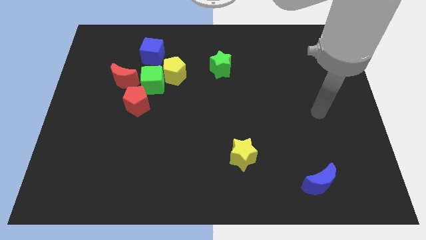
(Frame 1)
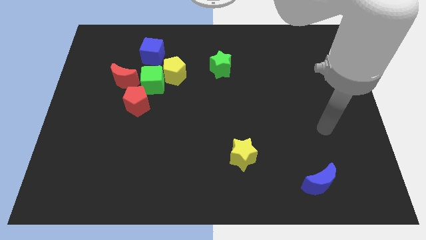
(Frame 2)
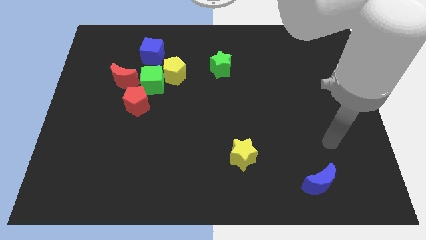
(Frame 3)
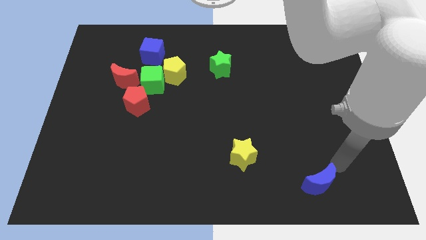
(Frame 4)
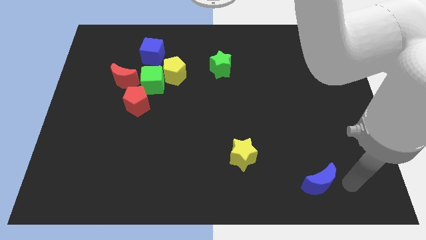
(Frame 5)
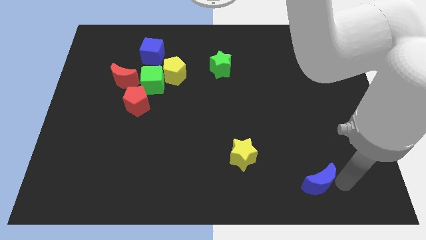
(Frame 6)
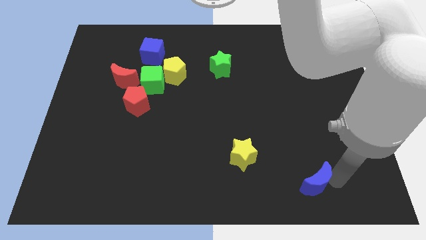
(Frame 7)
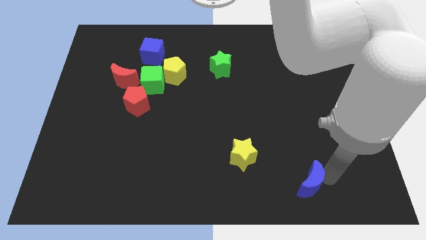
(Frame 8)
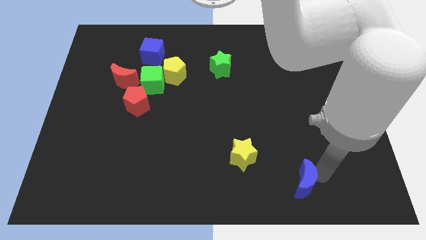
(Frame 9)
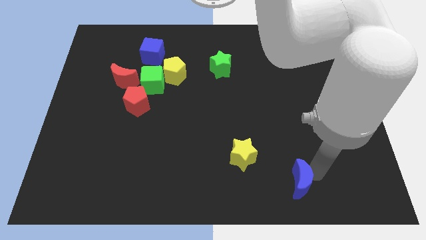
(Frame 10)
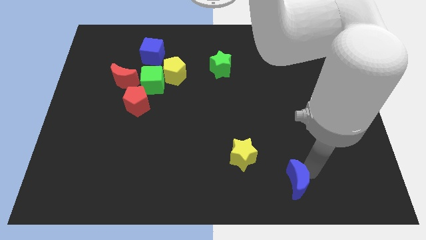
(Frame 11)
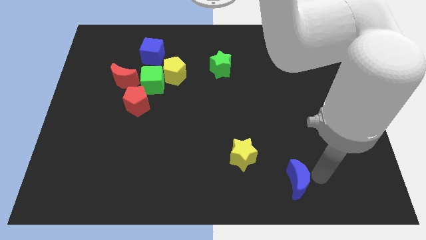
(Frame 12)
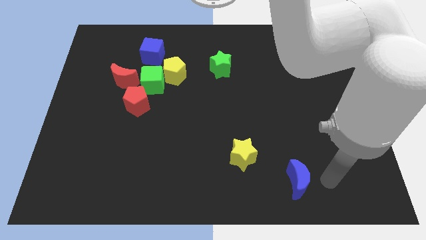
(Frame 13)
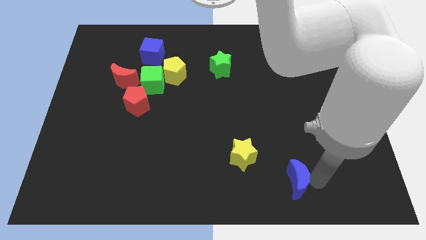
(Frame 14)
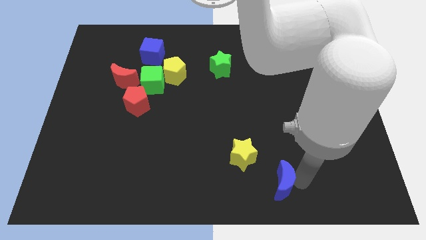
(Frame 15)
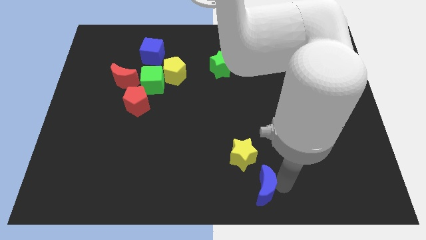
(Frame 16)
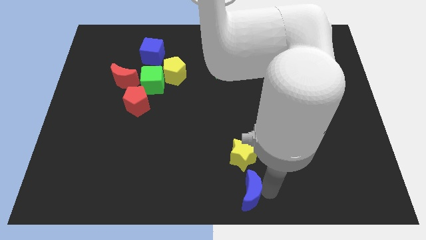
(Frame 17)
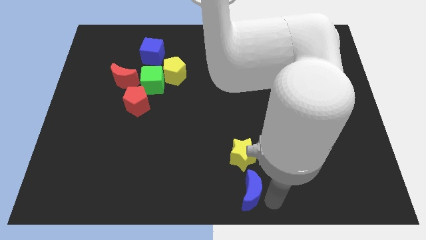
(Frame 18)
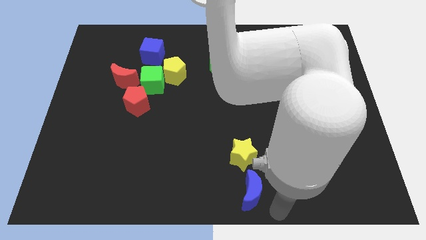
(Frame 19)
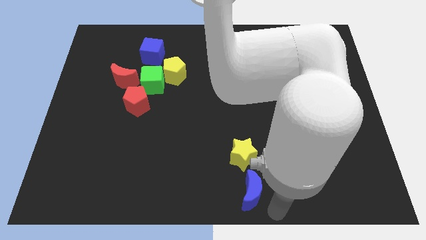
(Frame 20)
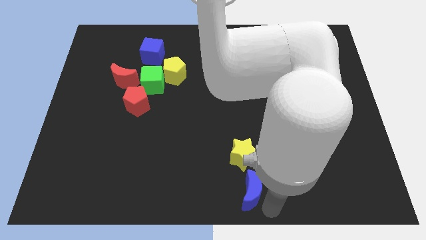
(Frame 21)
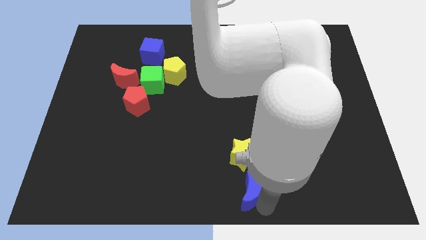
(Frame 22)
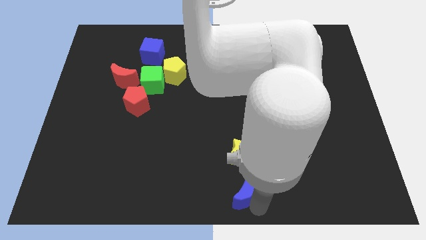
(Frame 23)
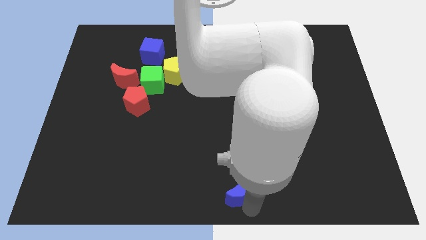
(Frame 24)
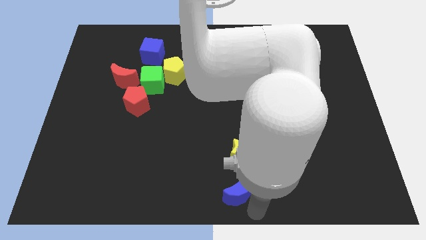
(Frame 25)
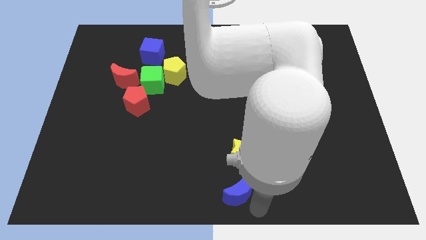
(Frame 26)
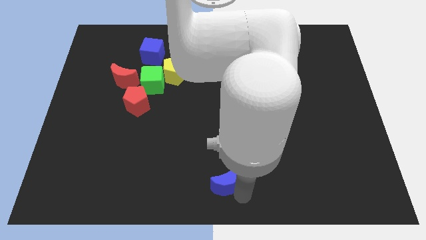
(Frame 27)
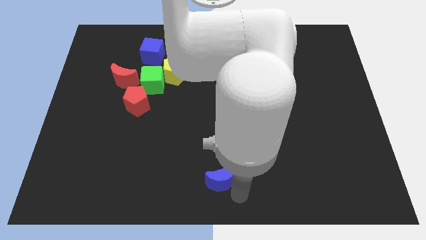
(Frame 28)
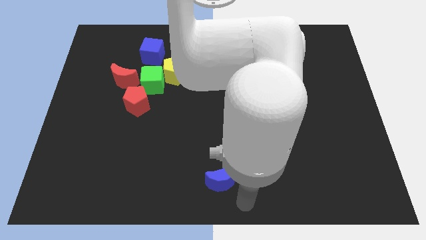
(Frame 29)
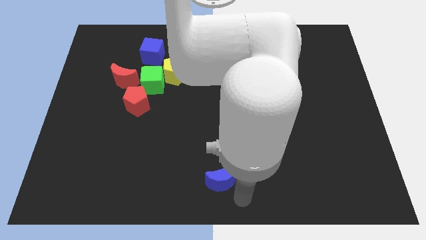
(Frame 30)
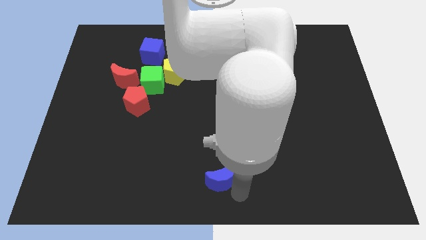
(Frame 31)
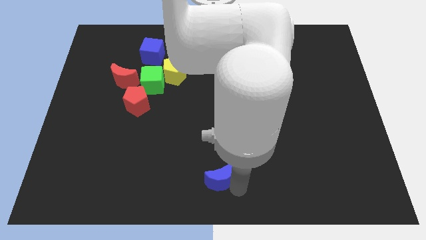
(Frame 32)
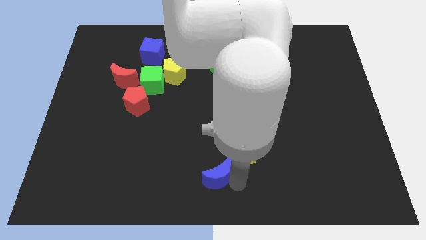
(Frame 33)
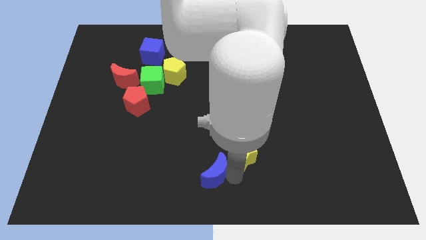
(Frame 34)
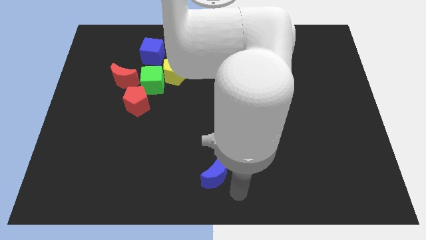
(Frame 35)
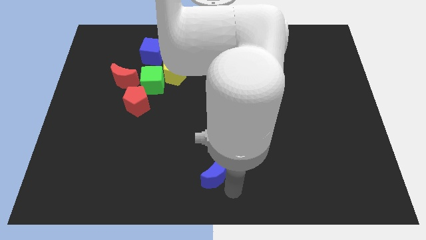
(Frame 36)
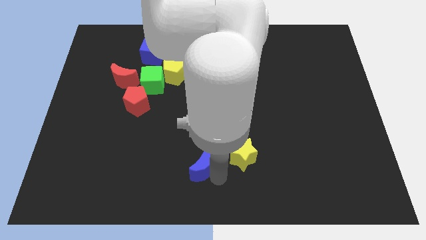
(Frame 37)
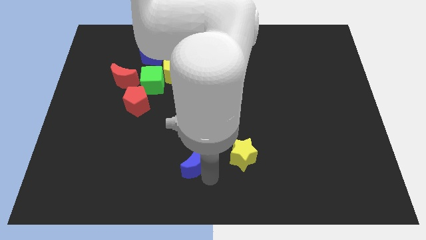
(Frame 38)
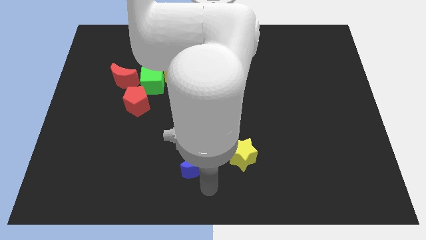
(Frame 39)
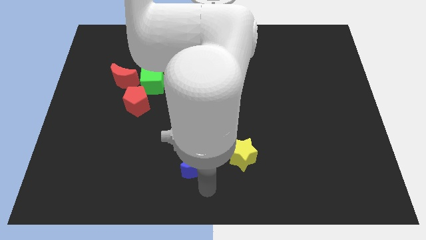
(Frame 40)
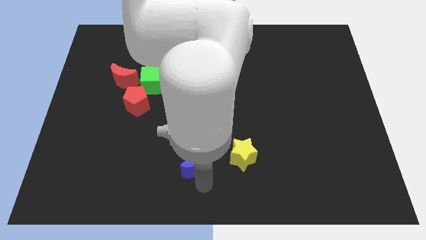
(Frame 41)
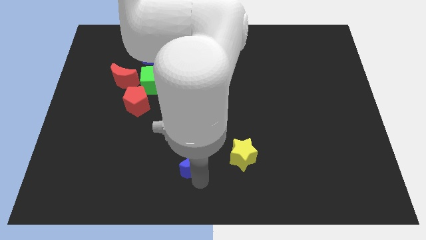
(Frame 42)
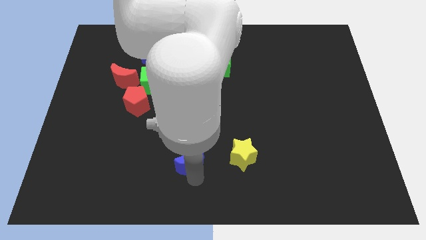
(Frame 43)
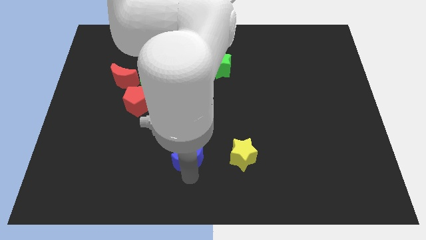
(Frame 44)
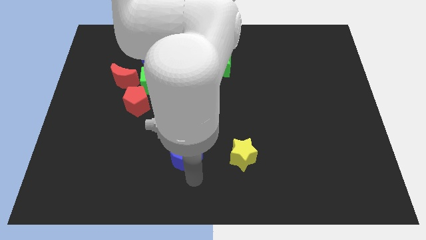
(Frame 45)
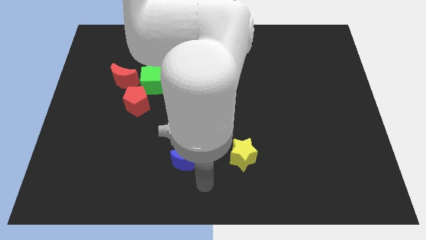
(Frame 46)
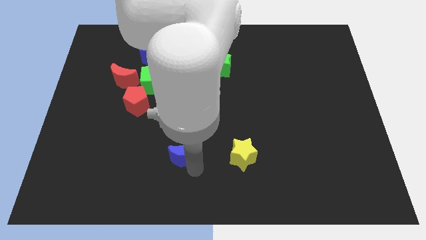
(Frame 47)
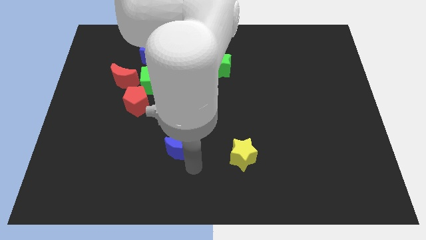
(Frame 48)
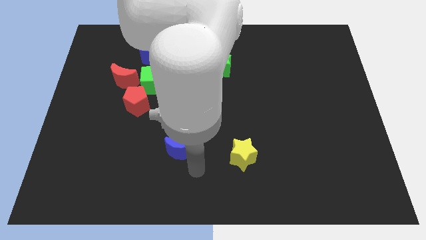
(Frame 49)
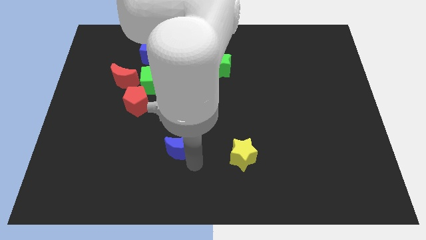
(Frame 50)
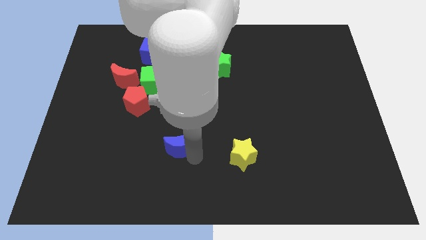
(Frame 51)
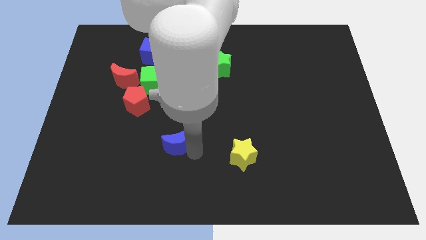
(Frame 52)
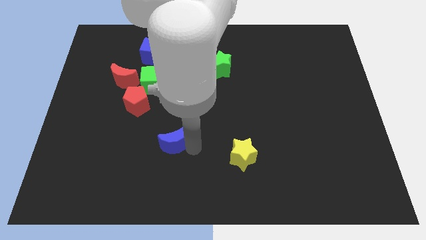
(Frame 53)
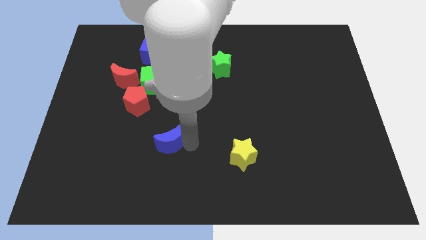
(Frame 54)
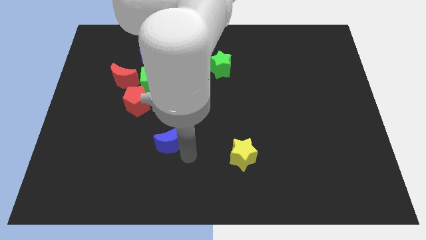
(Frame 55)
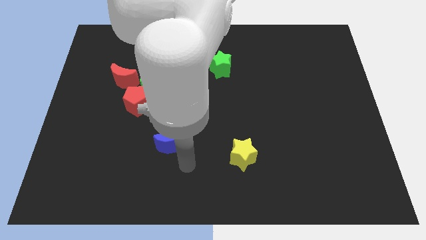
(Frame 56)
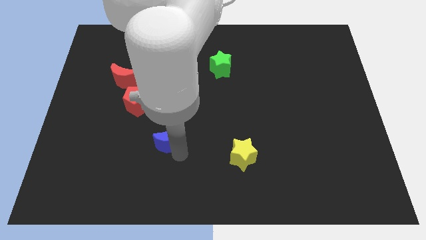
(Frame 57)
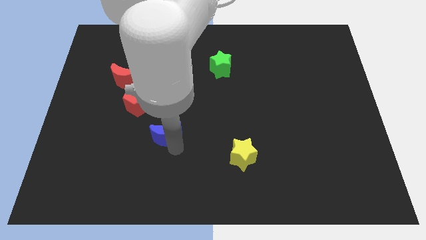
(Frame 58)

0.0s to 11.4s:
move the blue moon to the bottom right side of the red pentagon

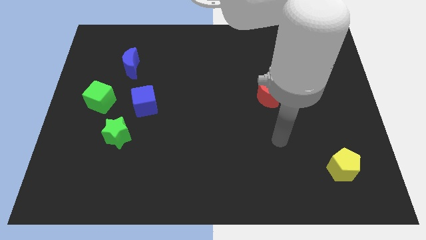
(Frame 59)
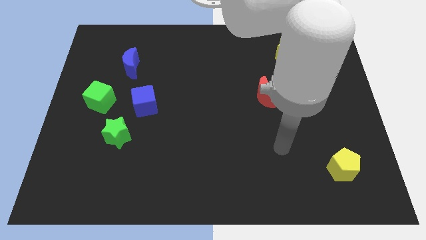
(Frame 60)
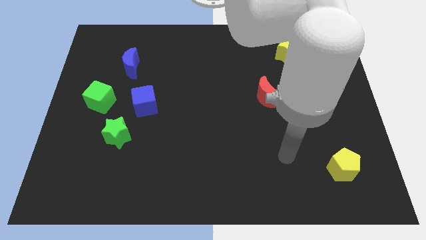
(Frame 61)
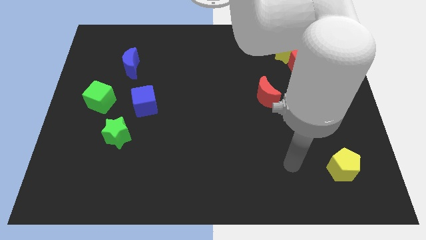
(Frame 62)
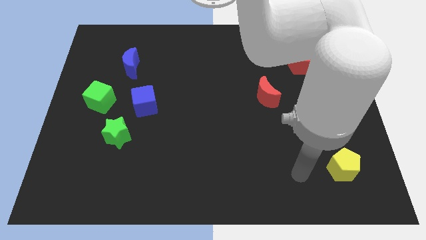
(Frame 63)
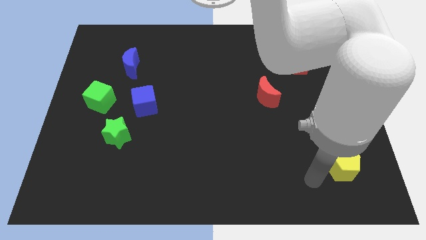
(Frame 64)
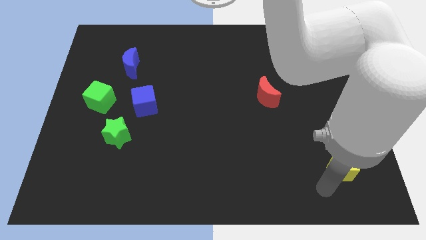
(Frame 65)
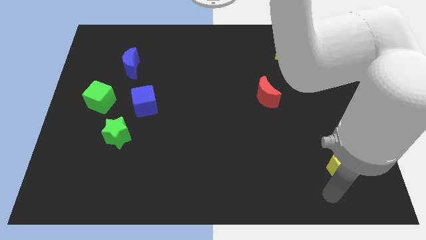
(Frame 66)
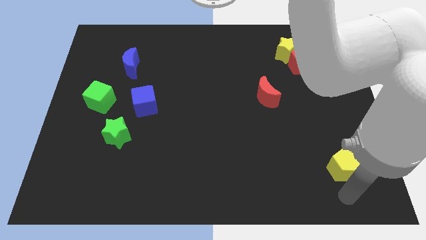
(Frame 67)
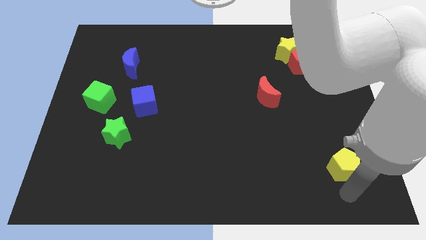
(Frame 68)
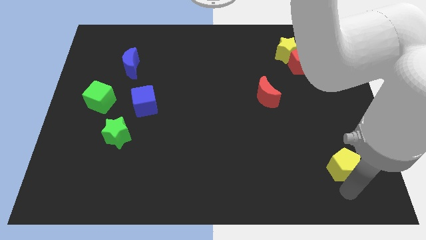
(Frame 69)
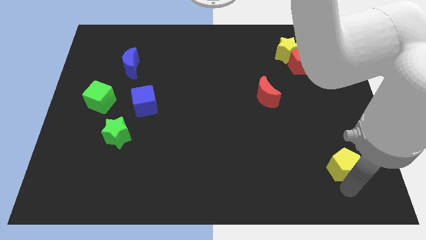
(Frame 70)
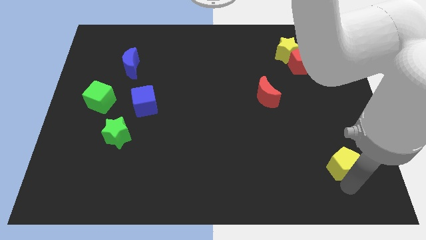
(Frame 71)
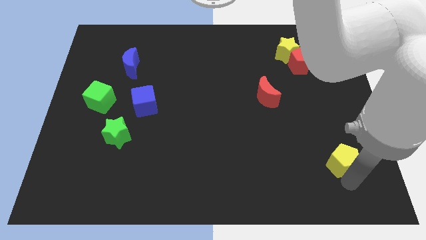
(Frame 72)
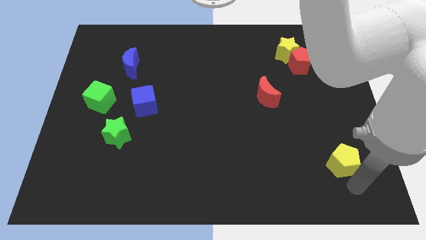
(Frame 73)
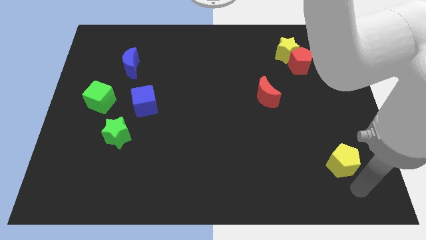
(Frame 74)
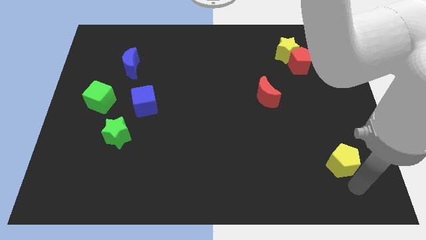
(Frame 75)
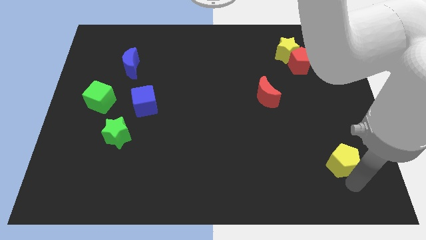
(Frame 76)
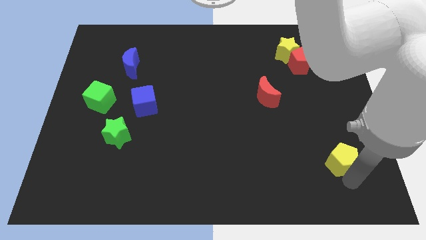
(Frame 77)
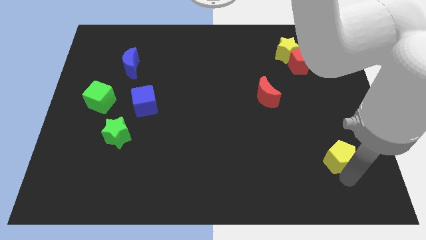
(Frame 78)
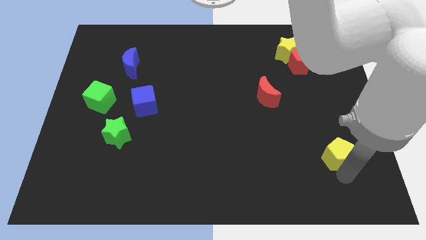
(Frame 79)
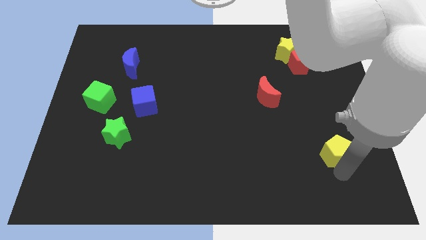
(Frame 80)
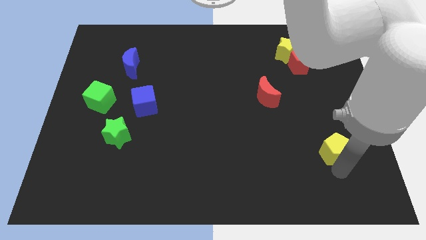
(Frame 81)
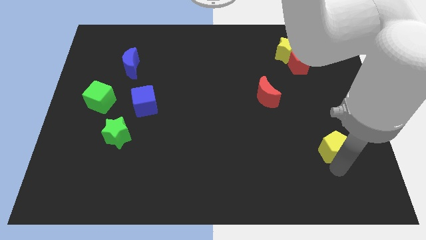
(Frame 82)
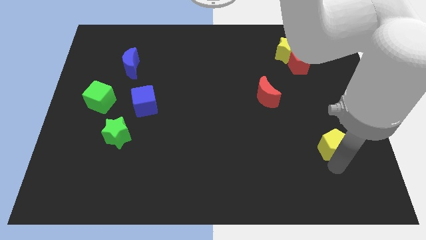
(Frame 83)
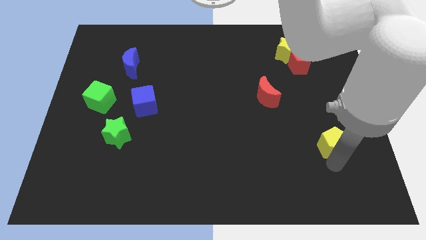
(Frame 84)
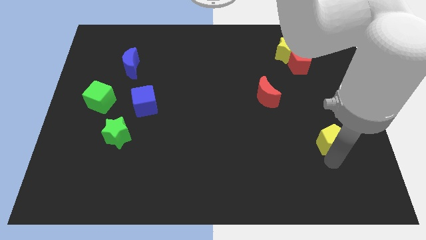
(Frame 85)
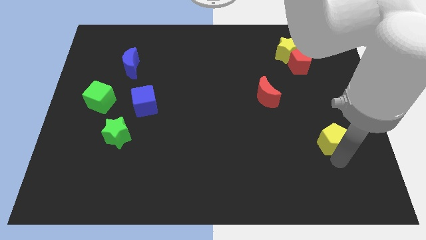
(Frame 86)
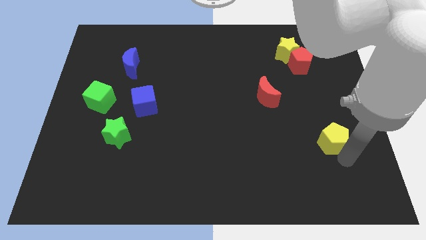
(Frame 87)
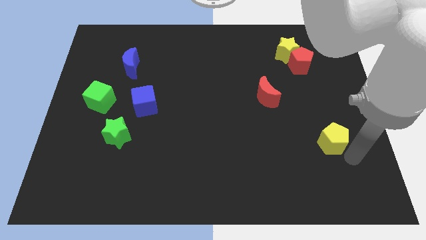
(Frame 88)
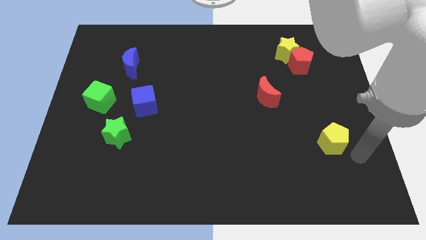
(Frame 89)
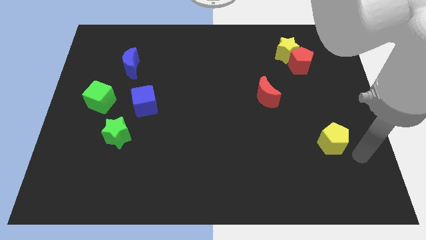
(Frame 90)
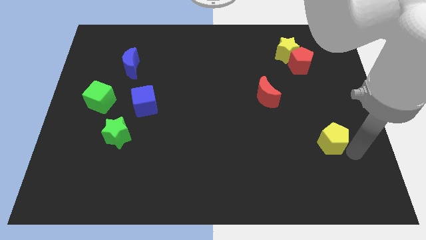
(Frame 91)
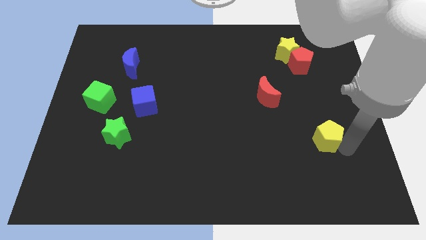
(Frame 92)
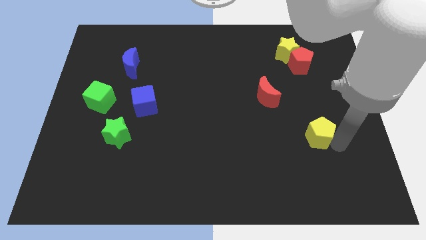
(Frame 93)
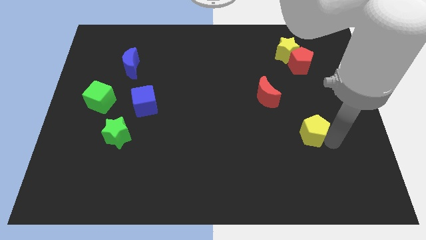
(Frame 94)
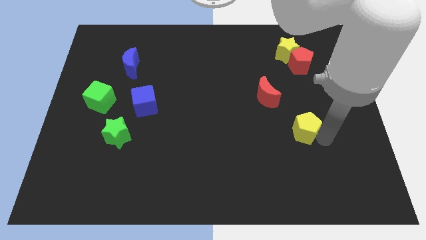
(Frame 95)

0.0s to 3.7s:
put the yellow pentagon to the bottom right of the red moon
